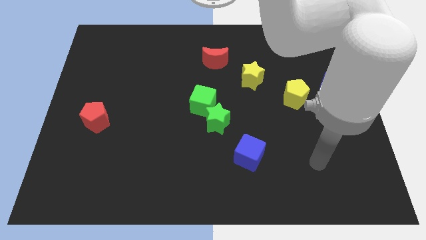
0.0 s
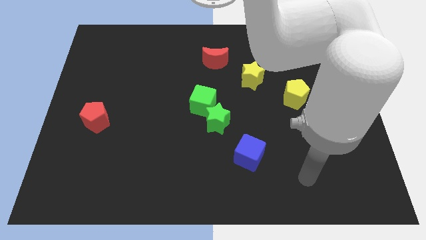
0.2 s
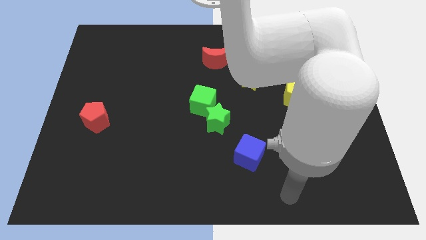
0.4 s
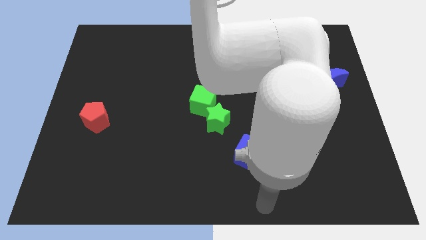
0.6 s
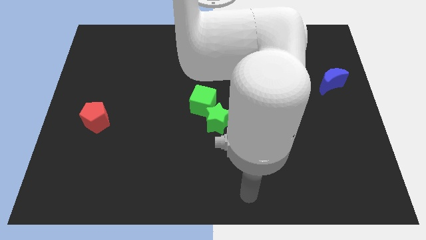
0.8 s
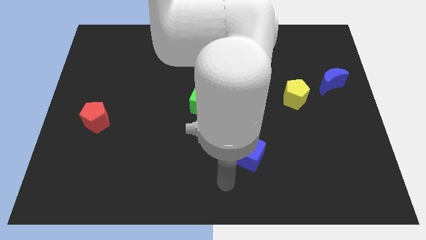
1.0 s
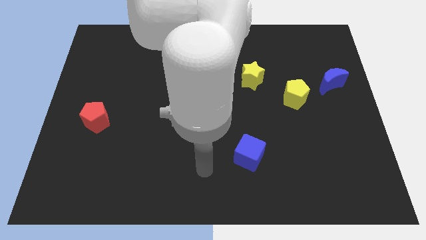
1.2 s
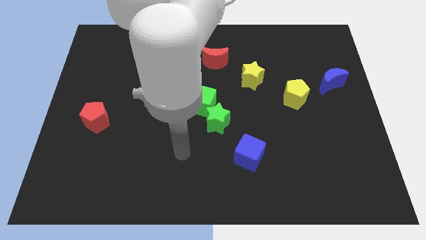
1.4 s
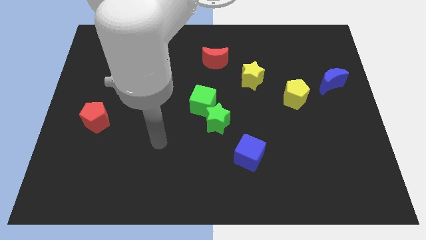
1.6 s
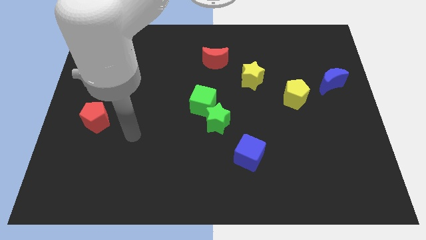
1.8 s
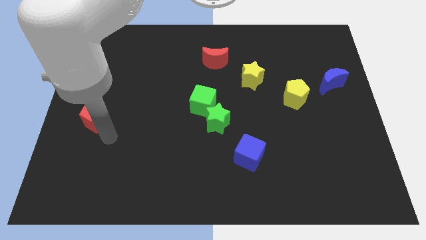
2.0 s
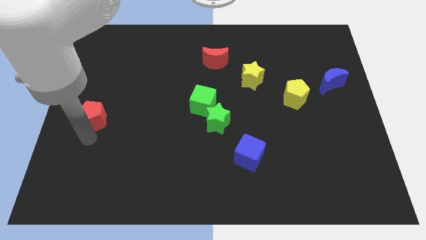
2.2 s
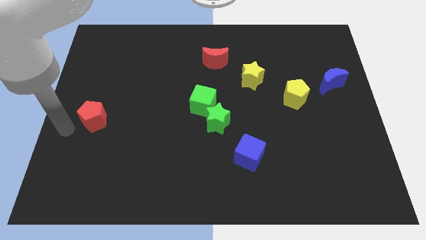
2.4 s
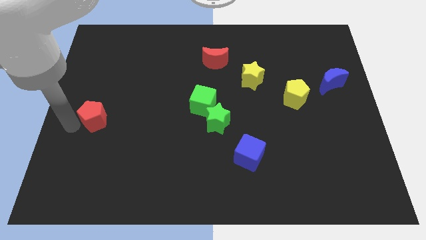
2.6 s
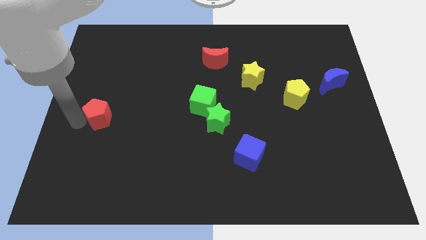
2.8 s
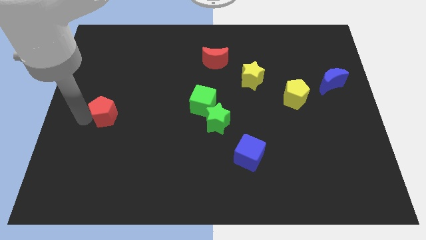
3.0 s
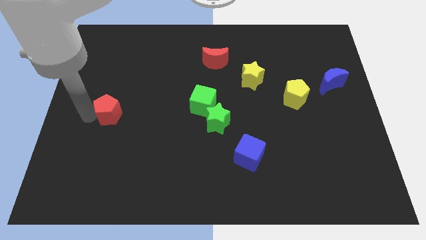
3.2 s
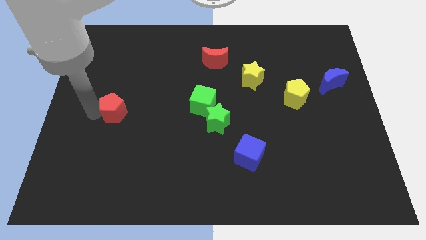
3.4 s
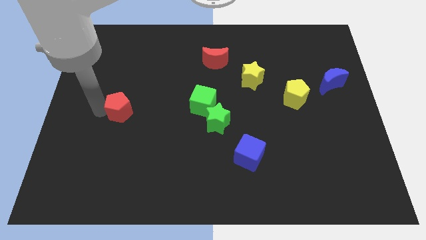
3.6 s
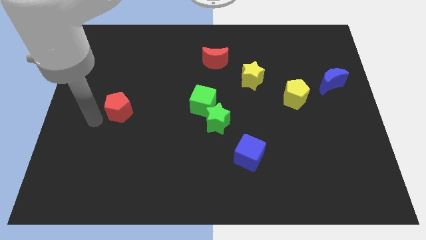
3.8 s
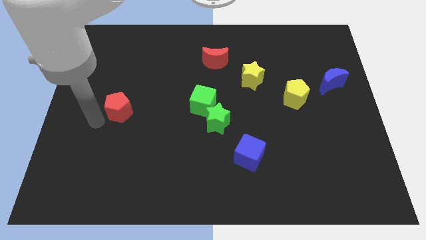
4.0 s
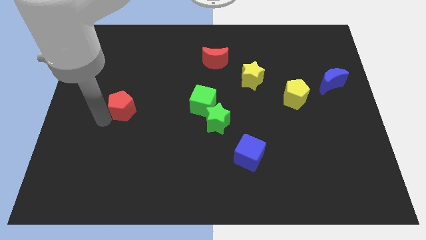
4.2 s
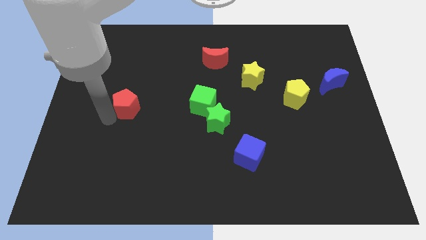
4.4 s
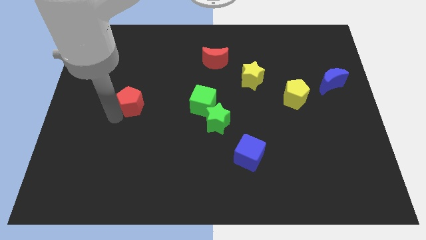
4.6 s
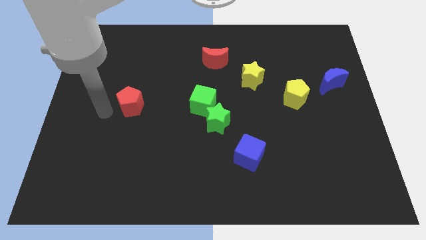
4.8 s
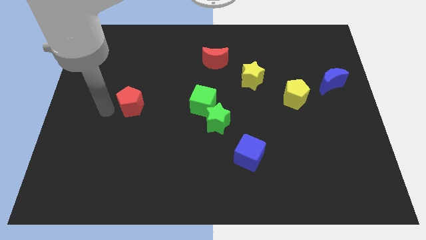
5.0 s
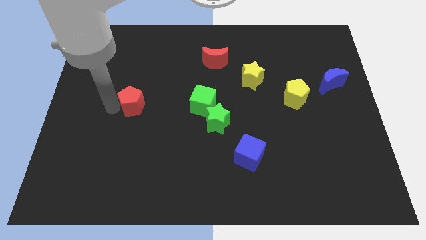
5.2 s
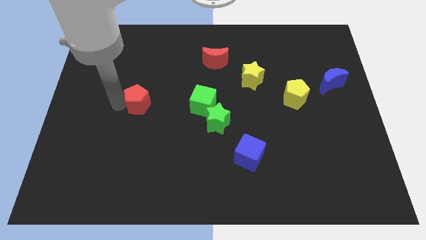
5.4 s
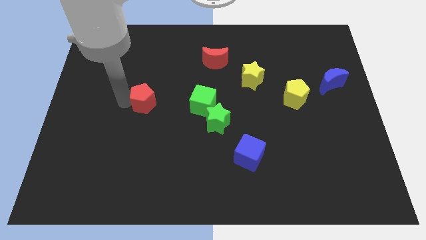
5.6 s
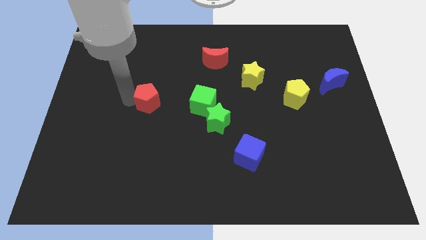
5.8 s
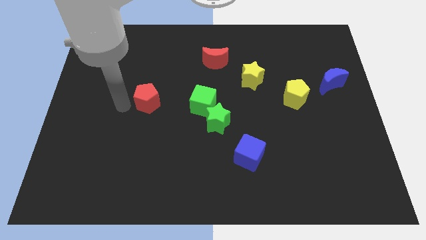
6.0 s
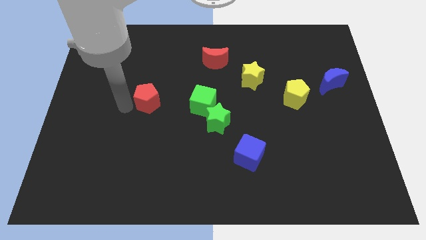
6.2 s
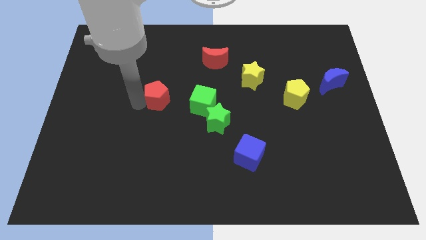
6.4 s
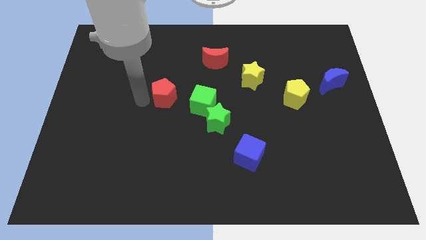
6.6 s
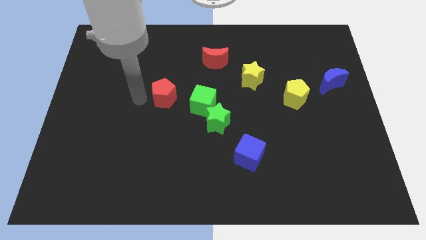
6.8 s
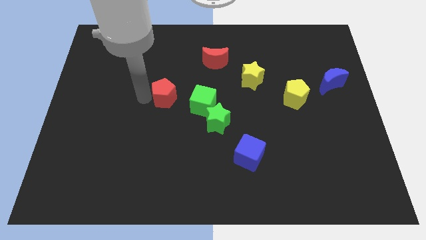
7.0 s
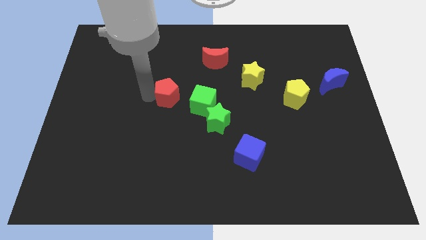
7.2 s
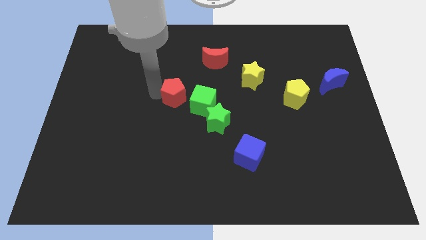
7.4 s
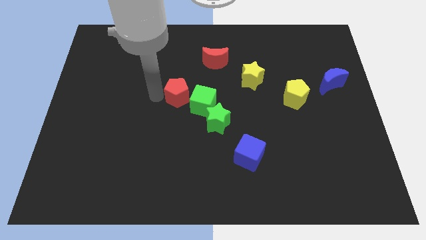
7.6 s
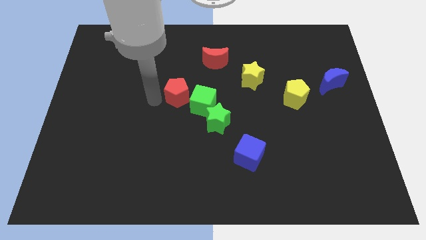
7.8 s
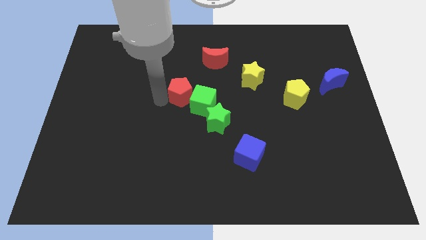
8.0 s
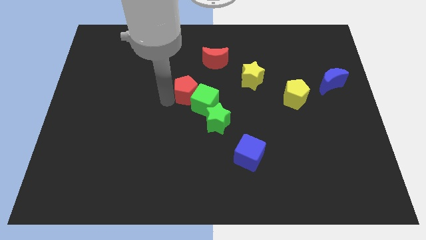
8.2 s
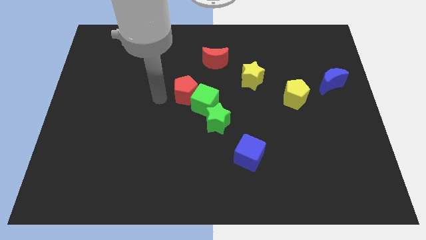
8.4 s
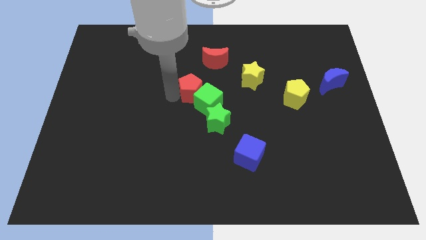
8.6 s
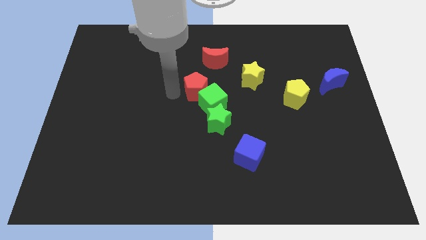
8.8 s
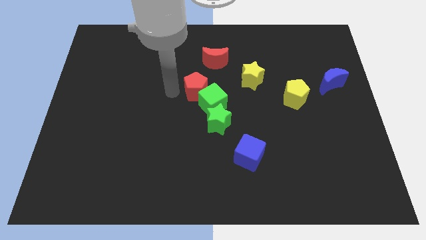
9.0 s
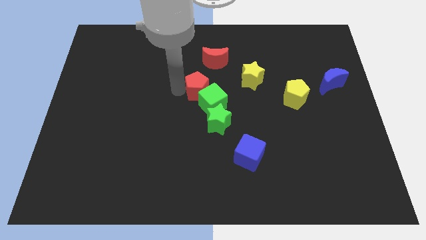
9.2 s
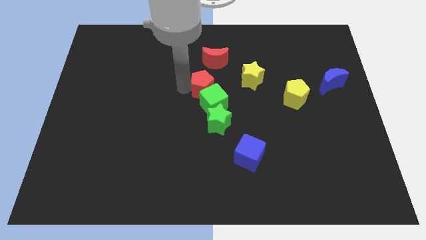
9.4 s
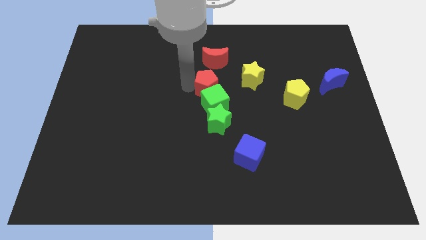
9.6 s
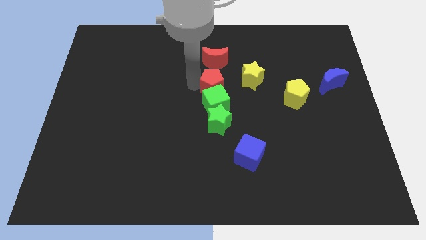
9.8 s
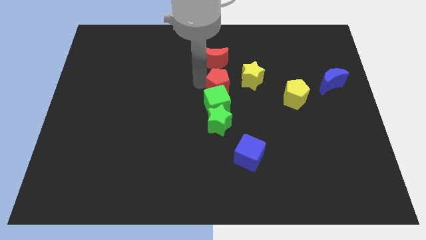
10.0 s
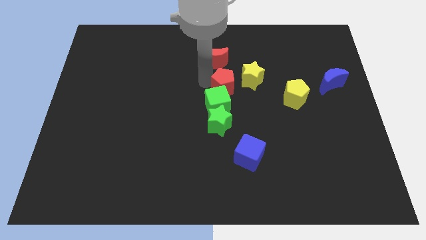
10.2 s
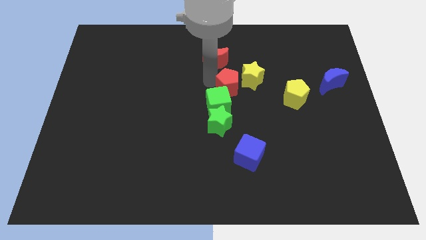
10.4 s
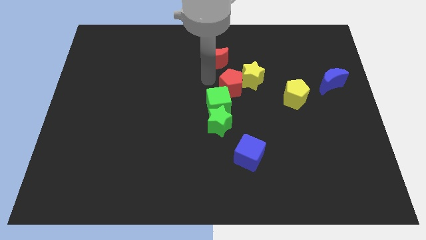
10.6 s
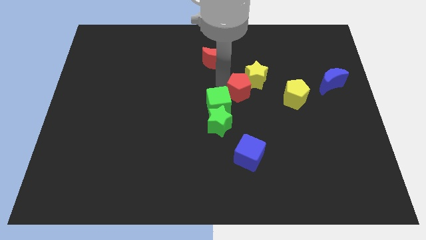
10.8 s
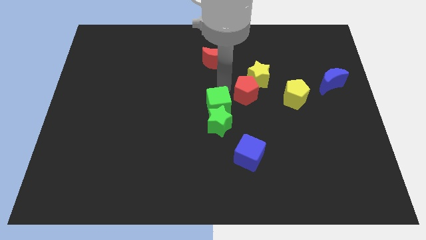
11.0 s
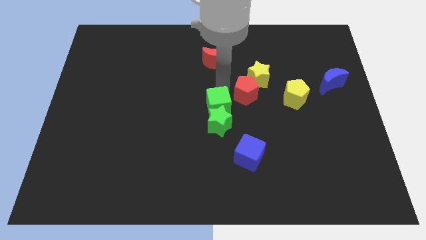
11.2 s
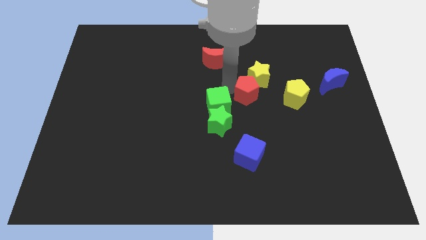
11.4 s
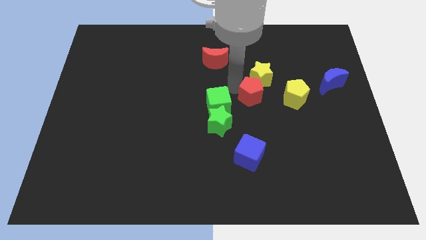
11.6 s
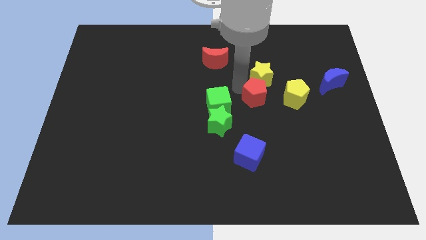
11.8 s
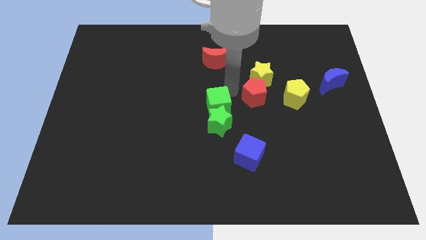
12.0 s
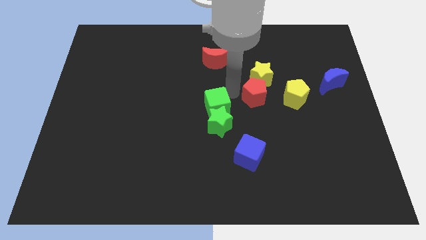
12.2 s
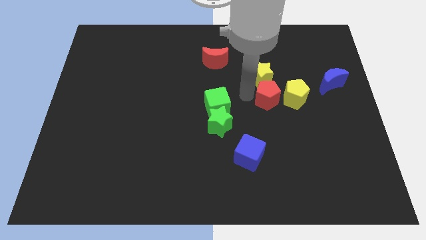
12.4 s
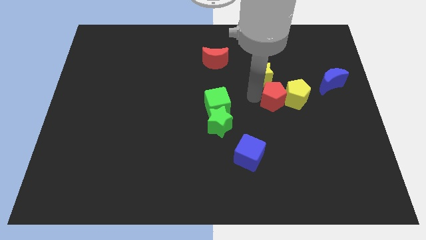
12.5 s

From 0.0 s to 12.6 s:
put the red pentagon close to the yellow pentagon
